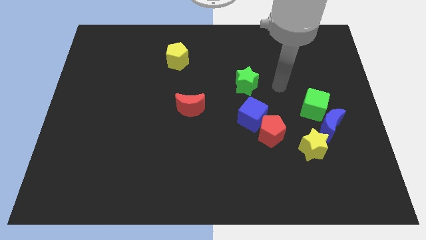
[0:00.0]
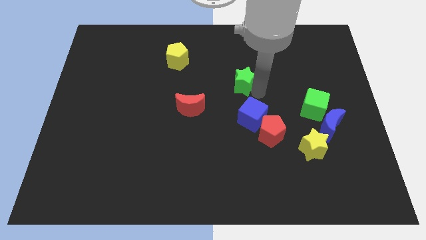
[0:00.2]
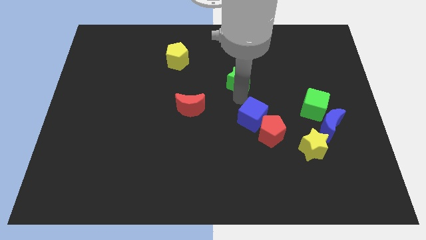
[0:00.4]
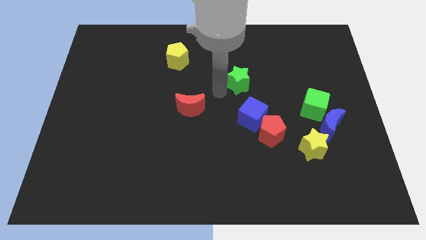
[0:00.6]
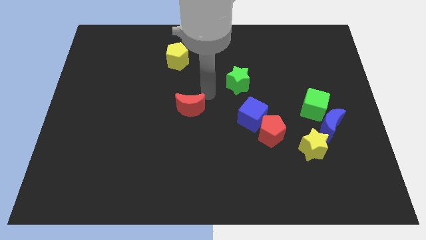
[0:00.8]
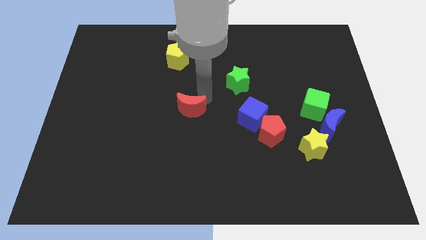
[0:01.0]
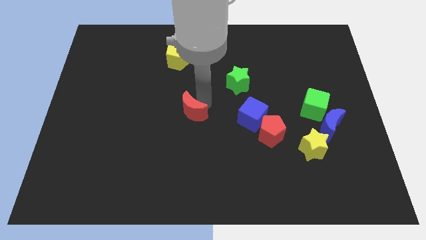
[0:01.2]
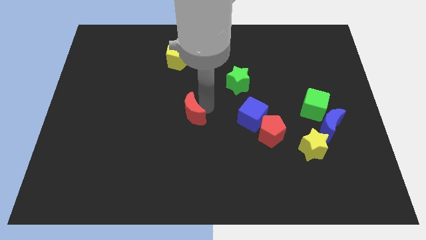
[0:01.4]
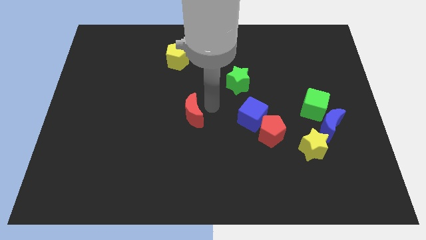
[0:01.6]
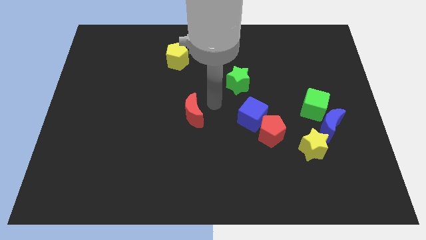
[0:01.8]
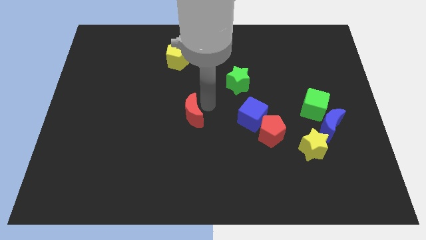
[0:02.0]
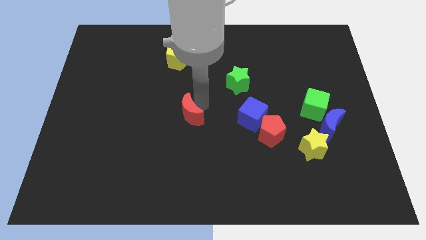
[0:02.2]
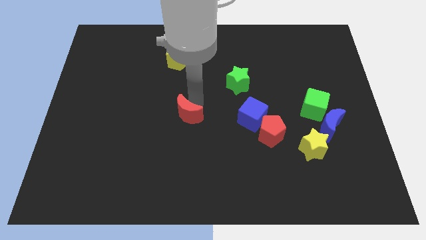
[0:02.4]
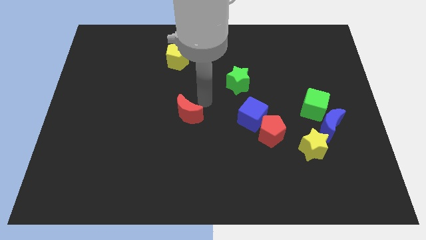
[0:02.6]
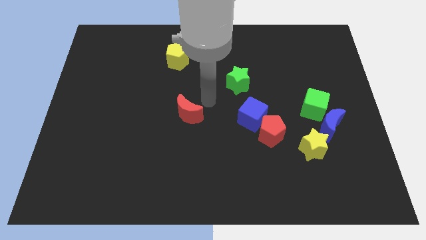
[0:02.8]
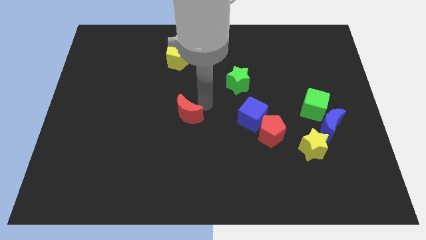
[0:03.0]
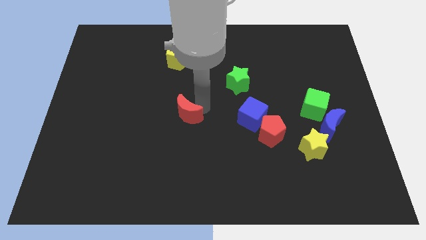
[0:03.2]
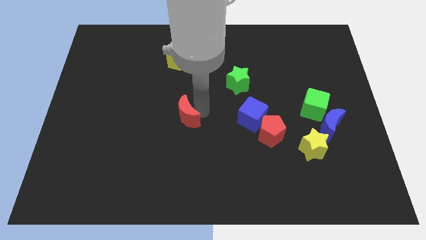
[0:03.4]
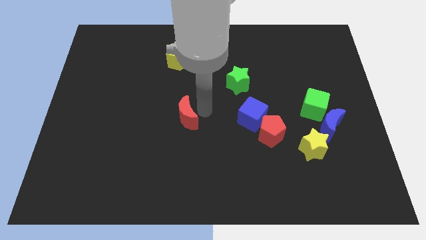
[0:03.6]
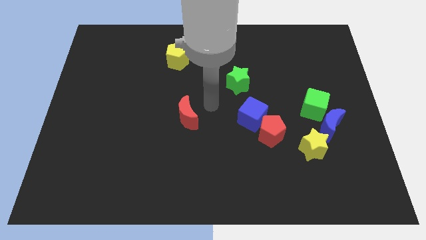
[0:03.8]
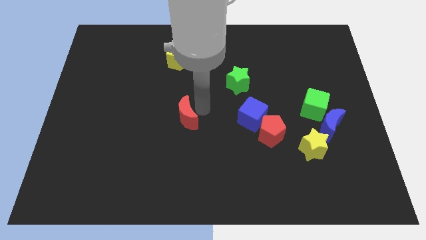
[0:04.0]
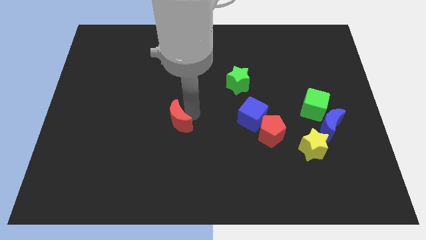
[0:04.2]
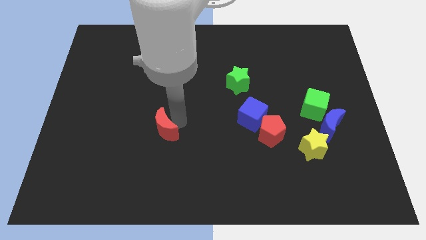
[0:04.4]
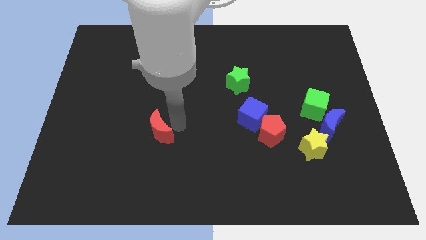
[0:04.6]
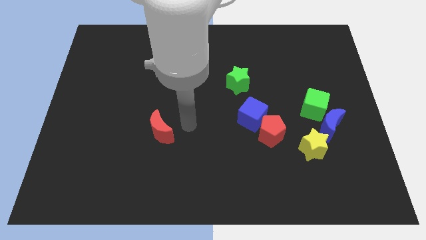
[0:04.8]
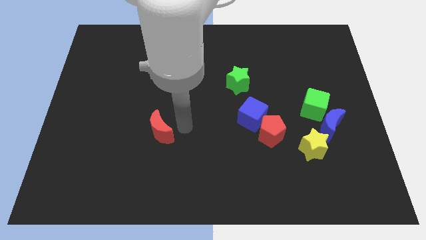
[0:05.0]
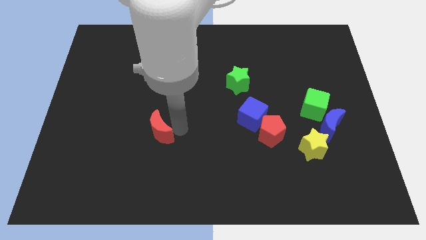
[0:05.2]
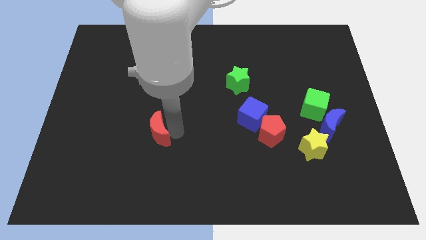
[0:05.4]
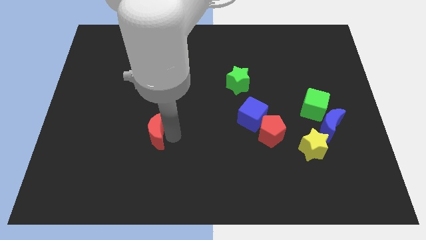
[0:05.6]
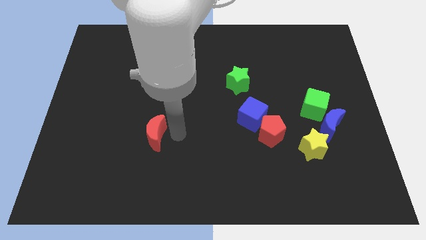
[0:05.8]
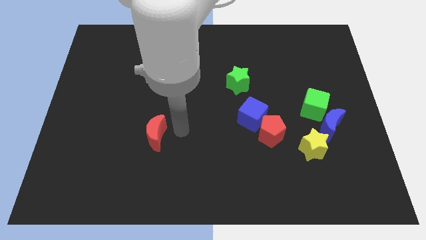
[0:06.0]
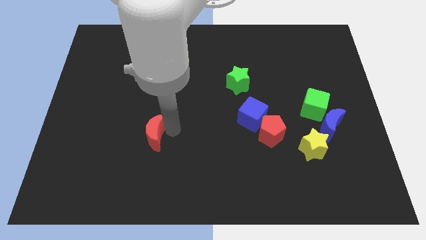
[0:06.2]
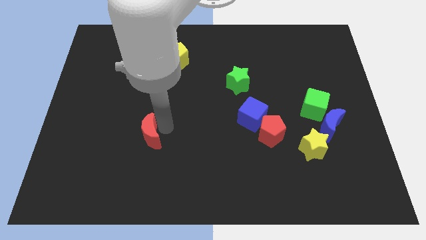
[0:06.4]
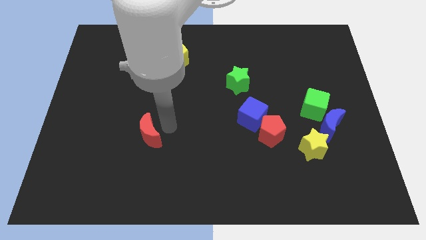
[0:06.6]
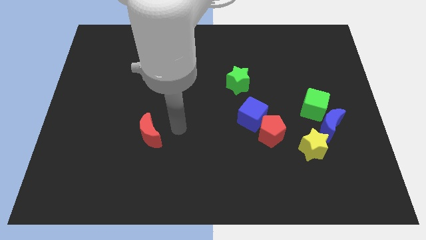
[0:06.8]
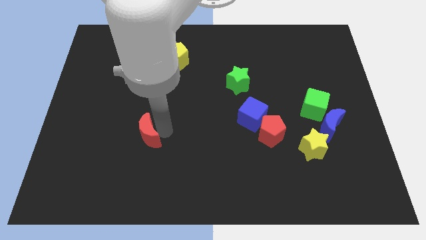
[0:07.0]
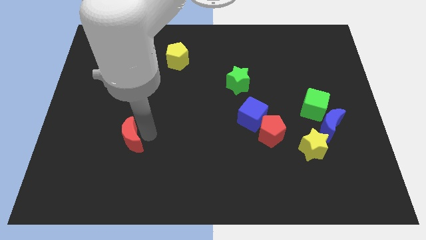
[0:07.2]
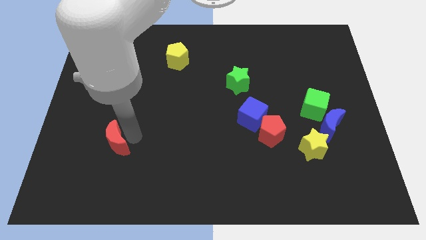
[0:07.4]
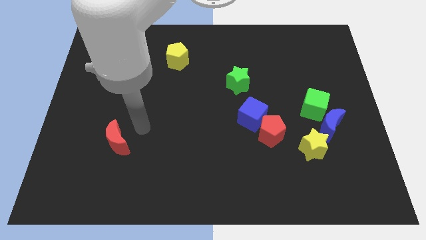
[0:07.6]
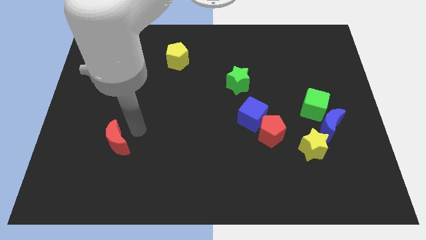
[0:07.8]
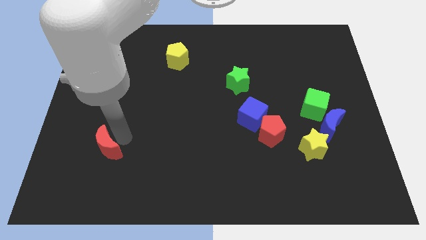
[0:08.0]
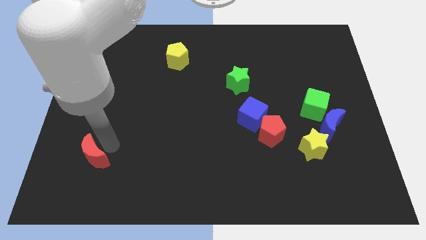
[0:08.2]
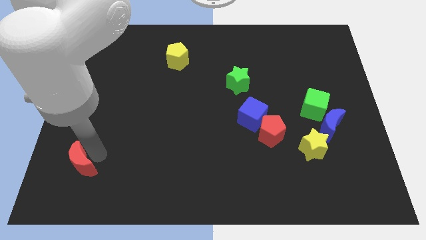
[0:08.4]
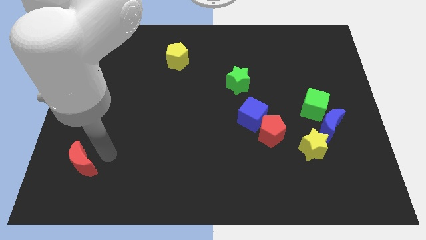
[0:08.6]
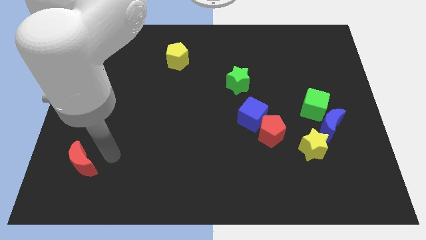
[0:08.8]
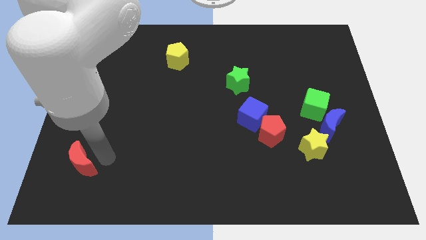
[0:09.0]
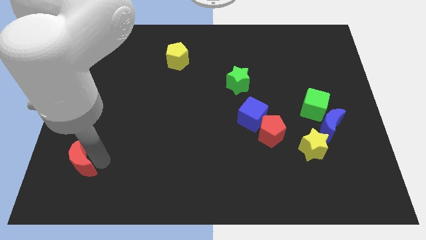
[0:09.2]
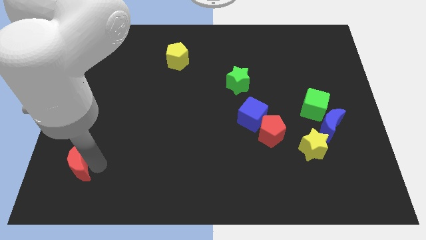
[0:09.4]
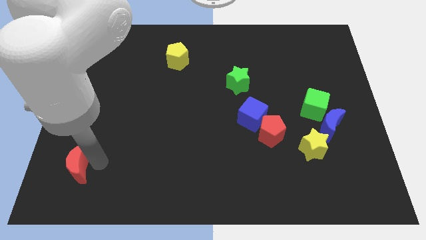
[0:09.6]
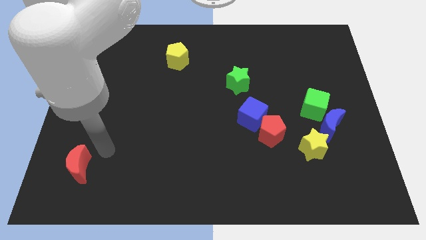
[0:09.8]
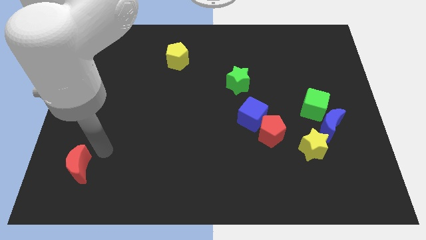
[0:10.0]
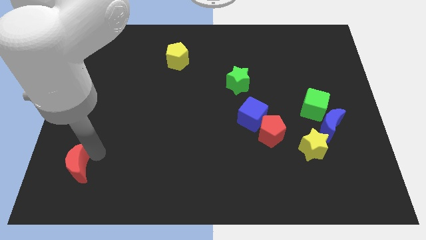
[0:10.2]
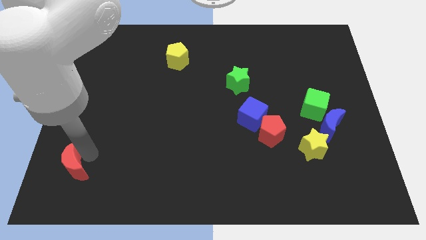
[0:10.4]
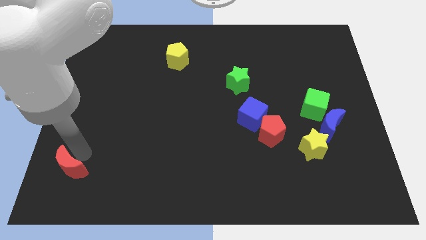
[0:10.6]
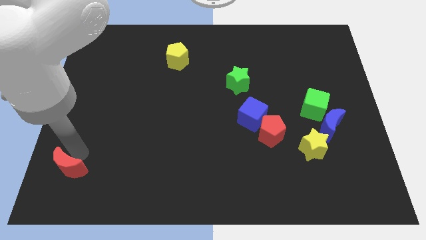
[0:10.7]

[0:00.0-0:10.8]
push the red moon to the lower left corner

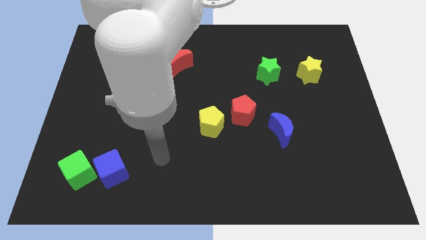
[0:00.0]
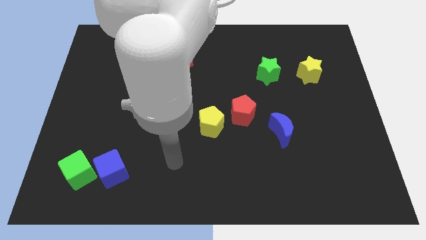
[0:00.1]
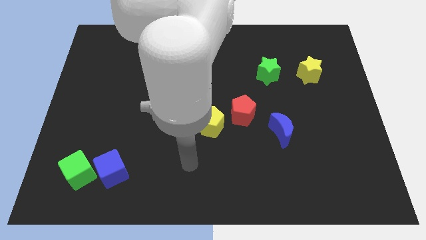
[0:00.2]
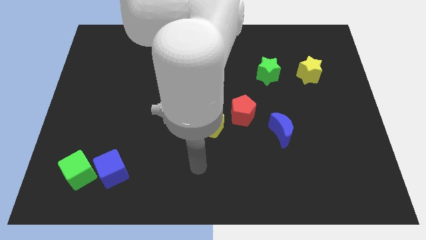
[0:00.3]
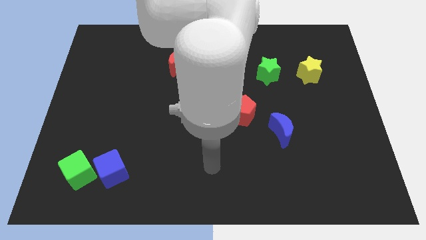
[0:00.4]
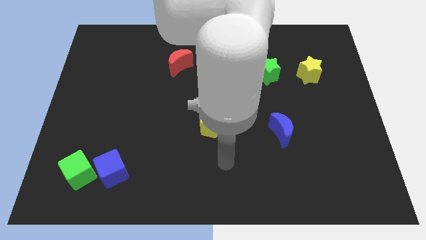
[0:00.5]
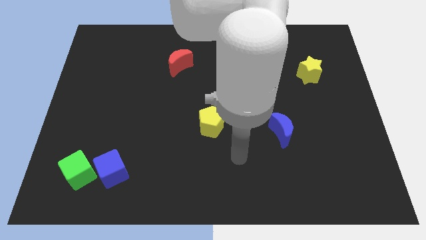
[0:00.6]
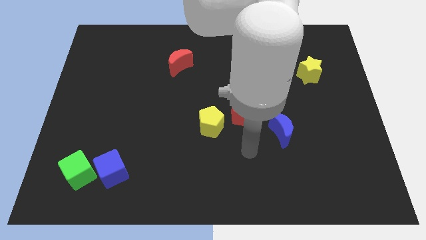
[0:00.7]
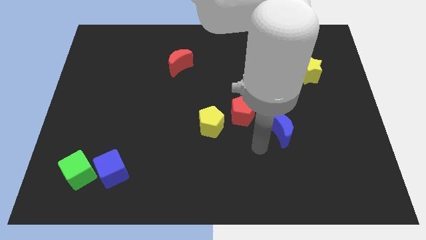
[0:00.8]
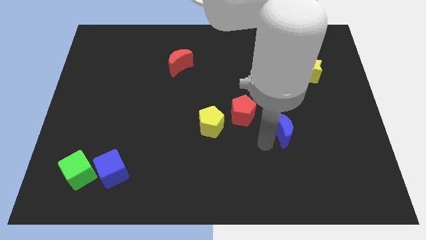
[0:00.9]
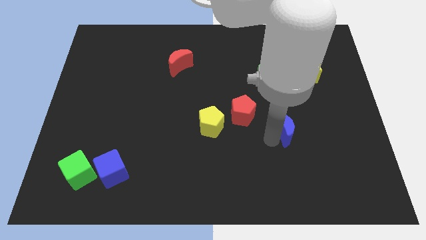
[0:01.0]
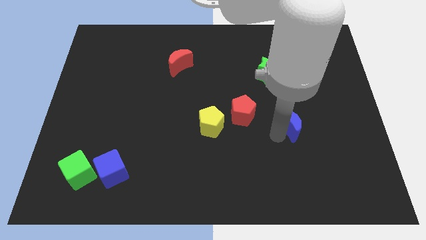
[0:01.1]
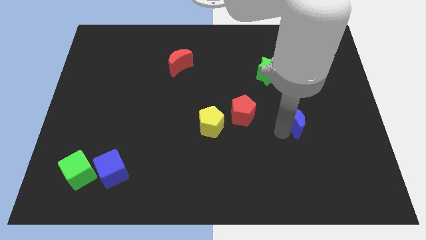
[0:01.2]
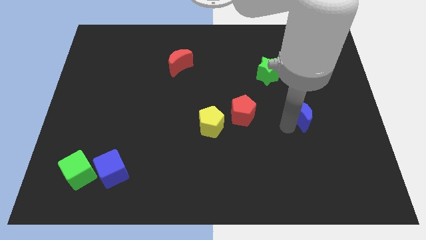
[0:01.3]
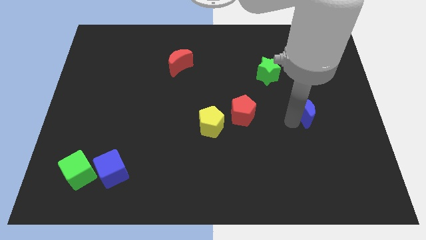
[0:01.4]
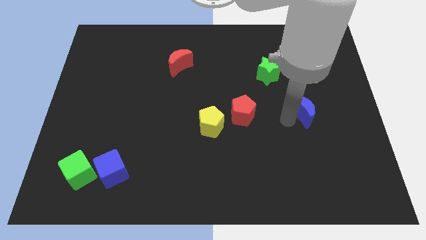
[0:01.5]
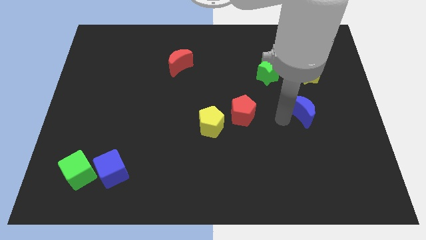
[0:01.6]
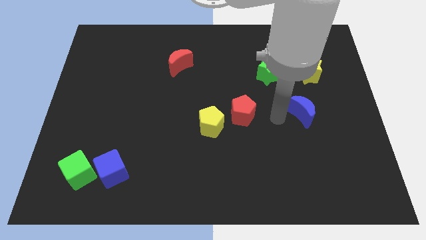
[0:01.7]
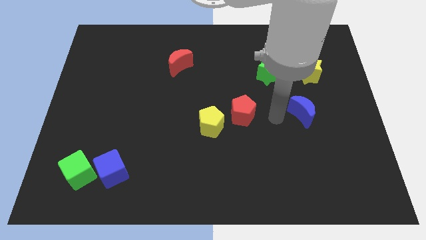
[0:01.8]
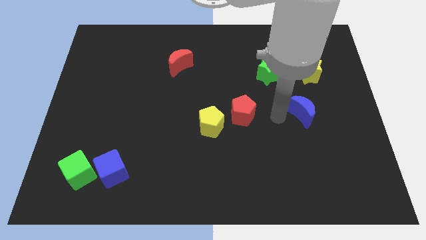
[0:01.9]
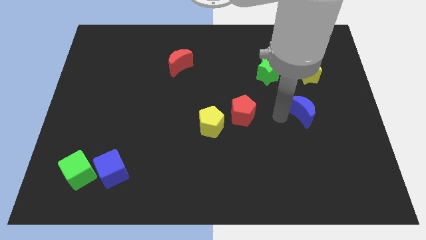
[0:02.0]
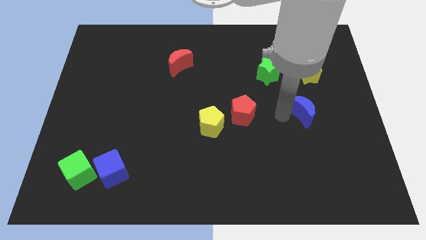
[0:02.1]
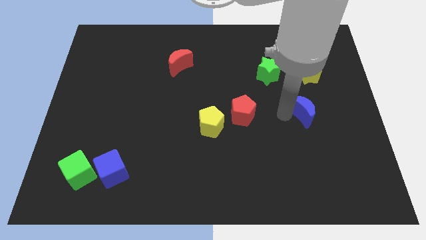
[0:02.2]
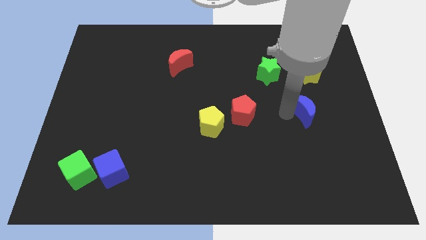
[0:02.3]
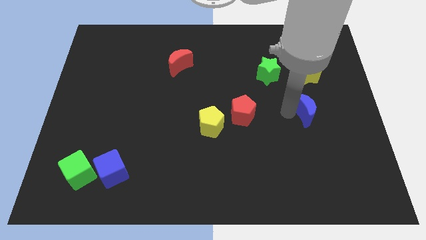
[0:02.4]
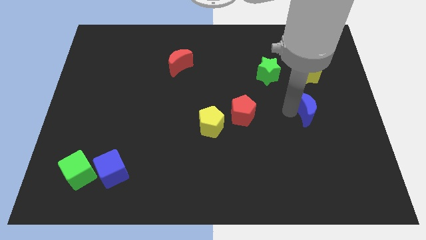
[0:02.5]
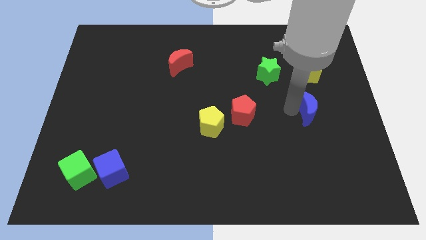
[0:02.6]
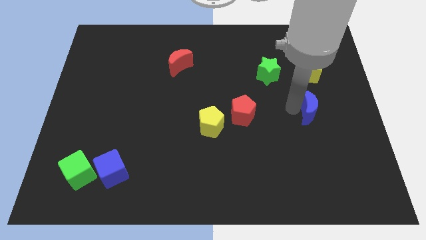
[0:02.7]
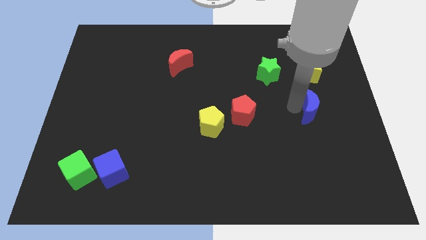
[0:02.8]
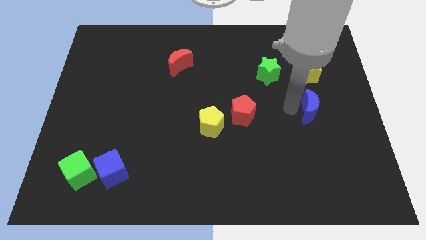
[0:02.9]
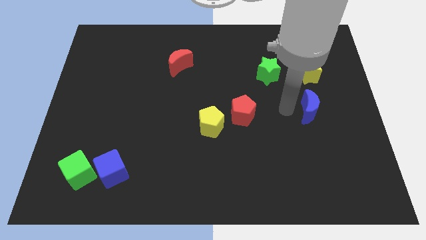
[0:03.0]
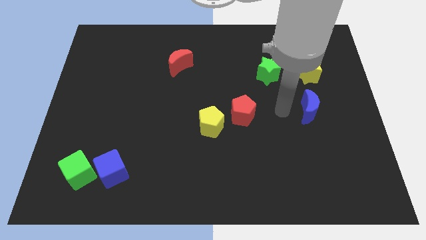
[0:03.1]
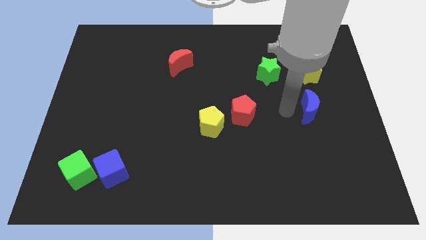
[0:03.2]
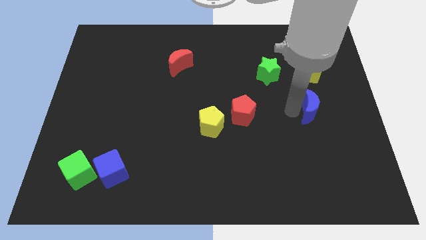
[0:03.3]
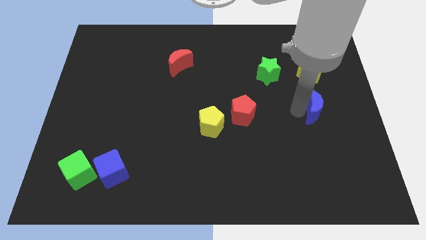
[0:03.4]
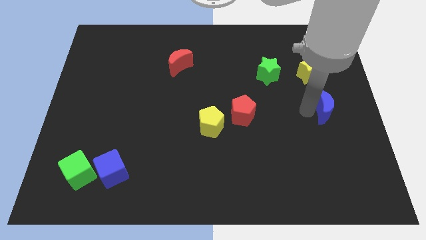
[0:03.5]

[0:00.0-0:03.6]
move the blue moon to the right side
